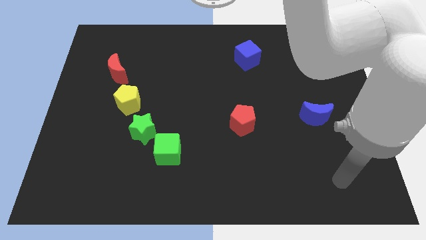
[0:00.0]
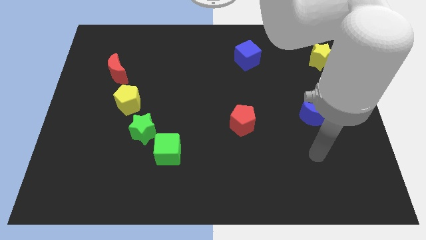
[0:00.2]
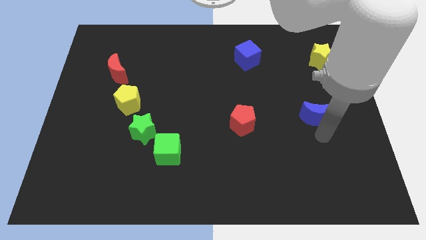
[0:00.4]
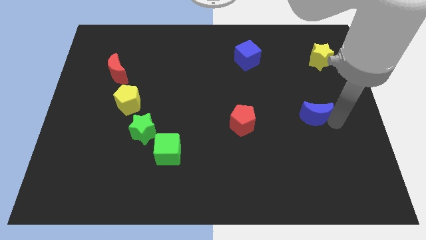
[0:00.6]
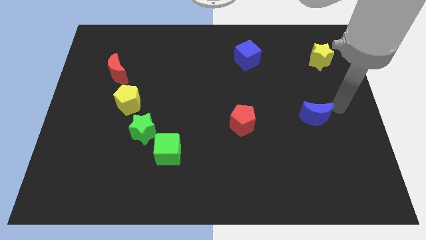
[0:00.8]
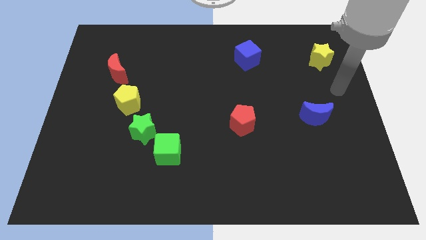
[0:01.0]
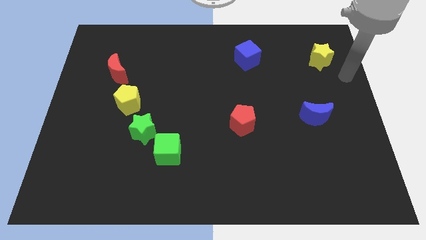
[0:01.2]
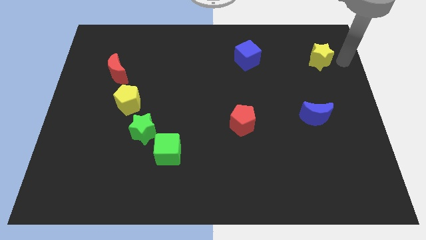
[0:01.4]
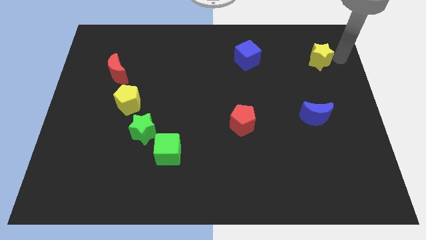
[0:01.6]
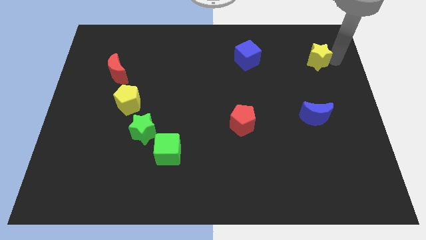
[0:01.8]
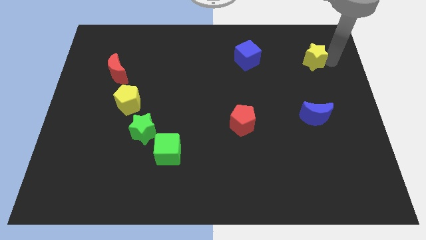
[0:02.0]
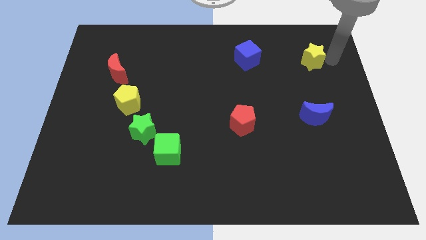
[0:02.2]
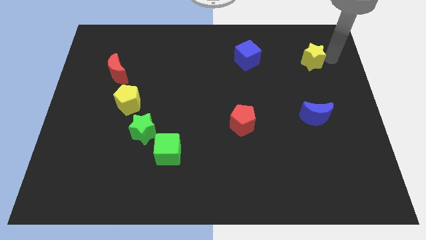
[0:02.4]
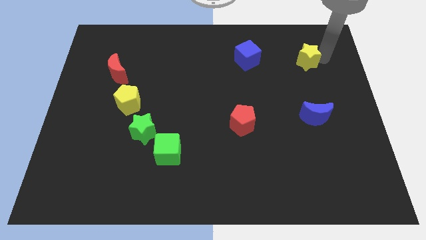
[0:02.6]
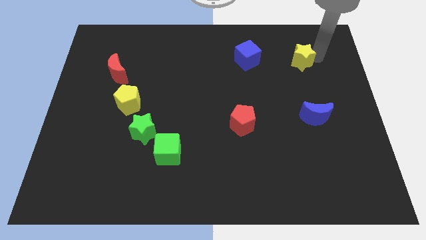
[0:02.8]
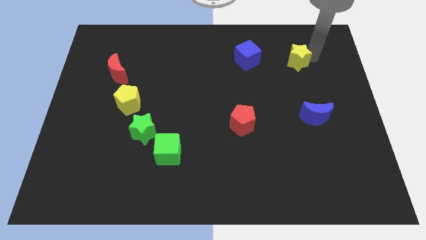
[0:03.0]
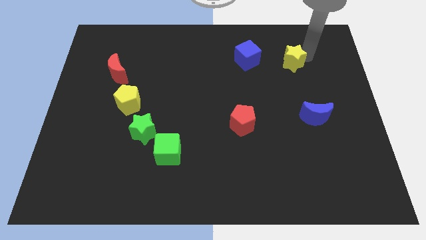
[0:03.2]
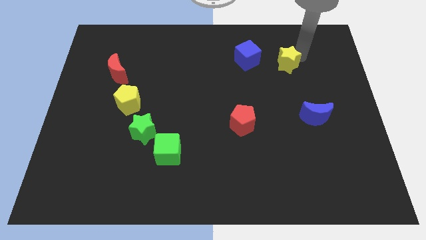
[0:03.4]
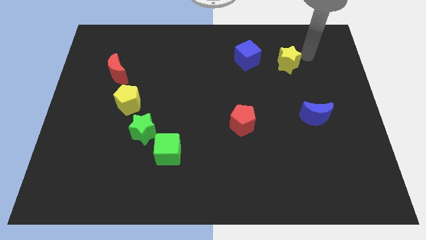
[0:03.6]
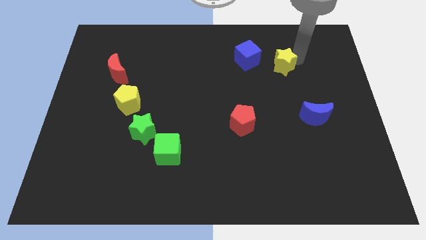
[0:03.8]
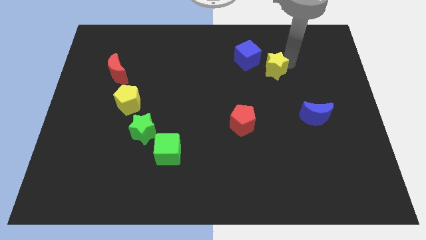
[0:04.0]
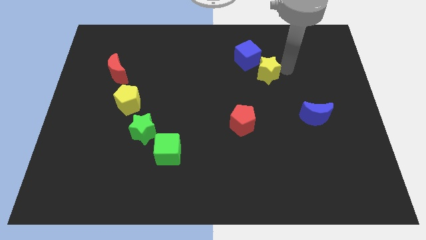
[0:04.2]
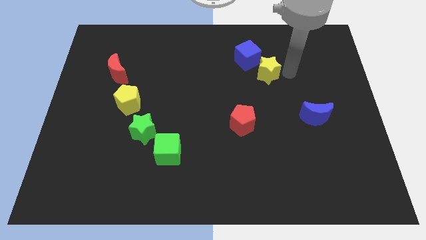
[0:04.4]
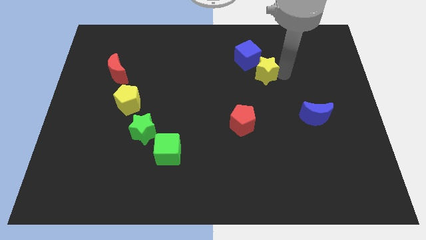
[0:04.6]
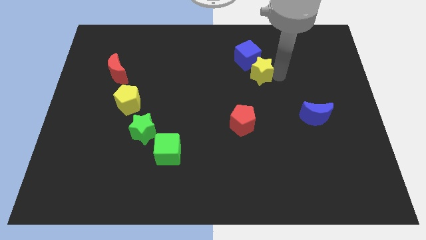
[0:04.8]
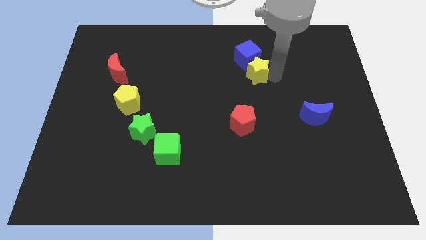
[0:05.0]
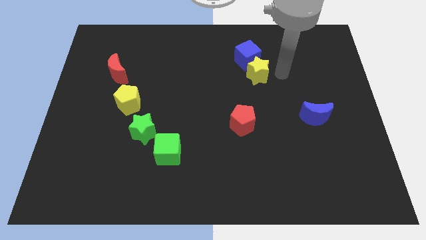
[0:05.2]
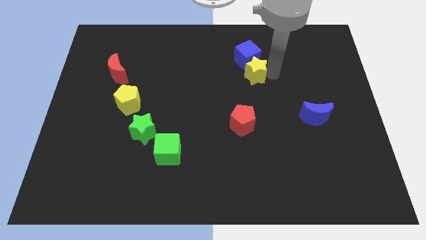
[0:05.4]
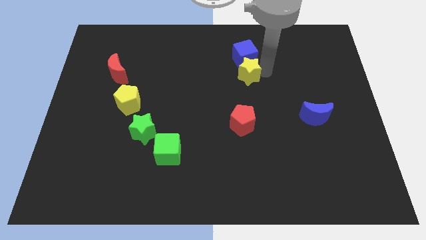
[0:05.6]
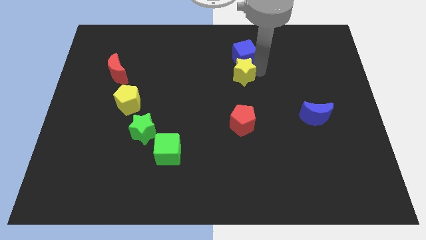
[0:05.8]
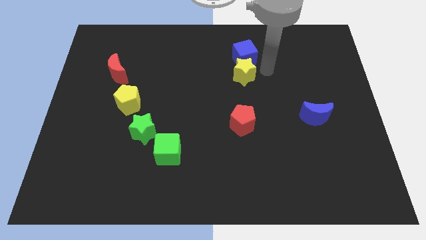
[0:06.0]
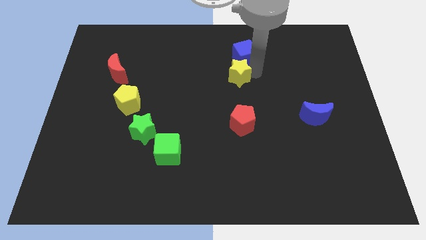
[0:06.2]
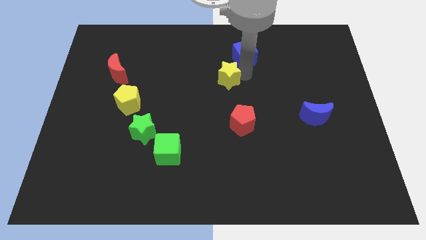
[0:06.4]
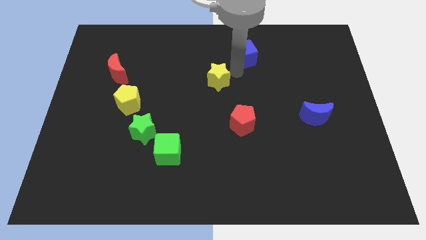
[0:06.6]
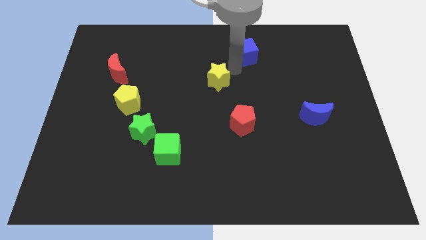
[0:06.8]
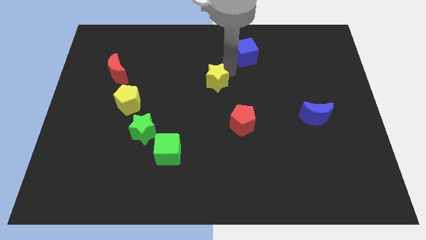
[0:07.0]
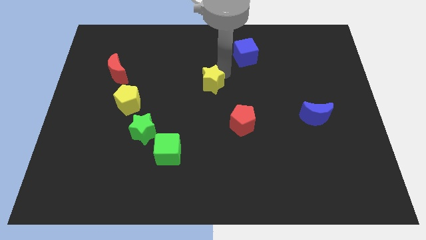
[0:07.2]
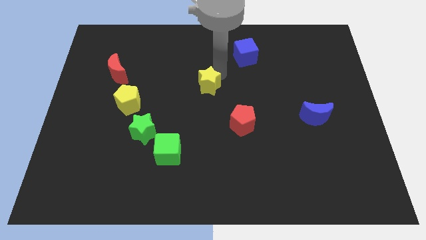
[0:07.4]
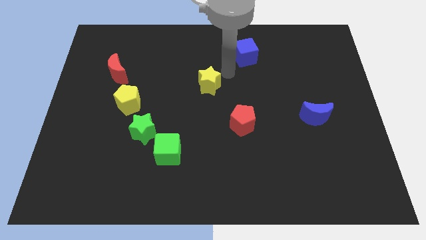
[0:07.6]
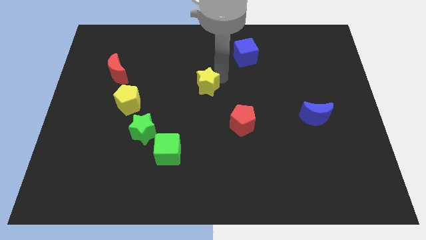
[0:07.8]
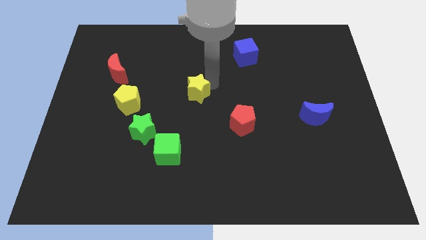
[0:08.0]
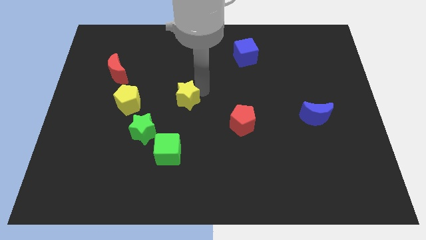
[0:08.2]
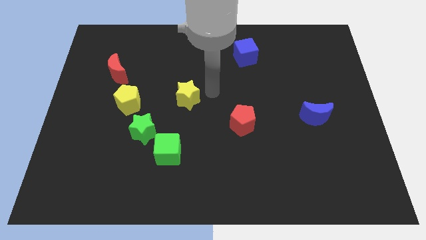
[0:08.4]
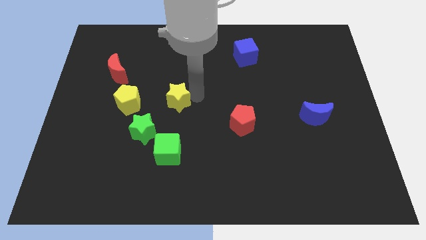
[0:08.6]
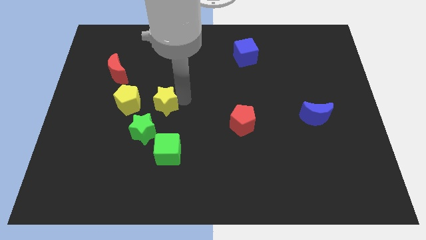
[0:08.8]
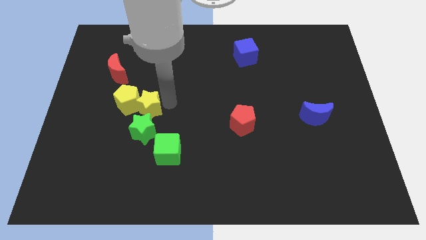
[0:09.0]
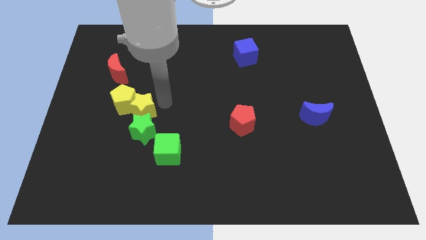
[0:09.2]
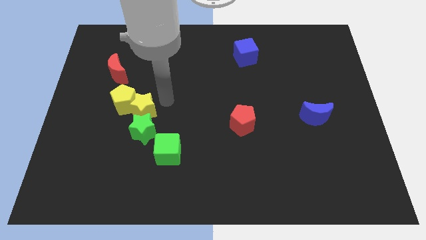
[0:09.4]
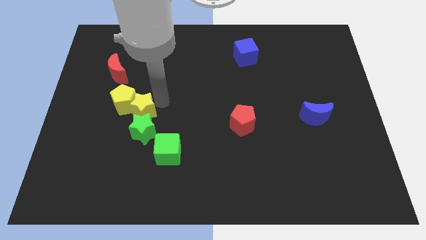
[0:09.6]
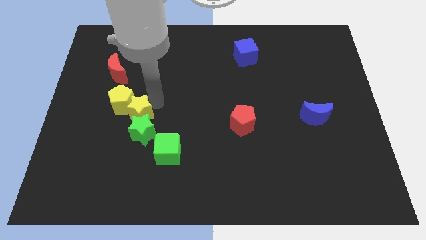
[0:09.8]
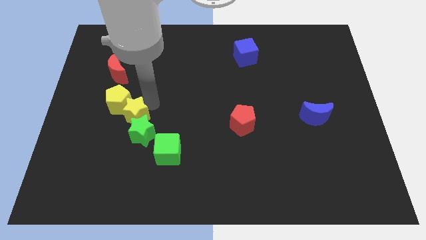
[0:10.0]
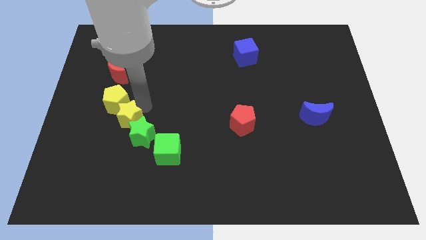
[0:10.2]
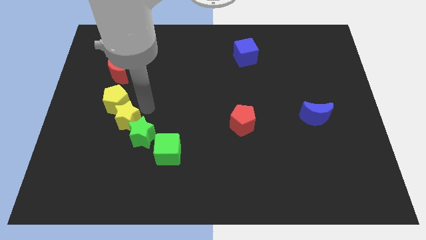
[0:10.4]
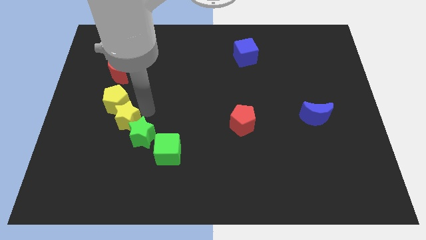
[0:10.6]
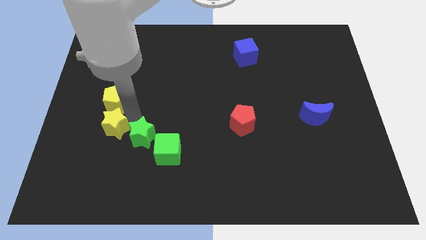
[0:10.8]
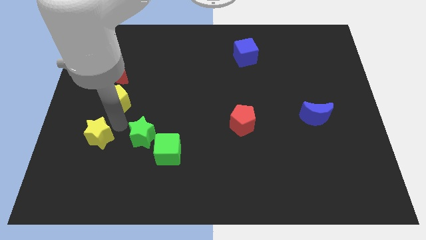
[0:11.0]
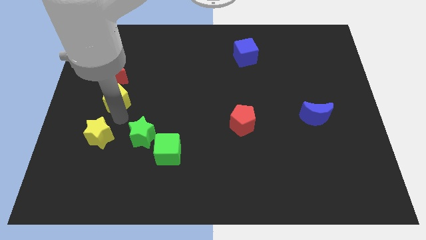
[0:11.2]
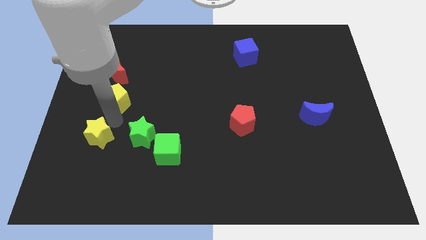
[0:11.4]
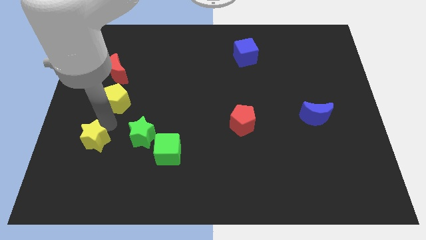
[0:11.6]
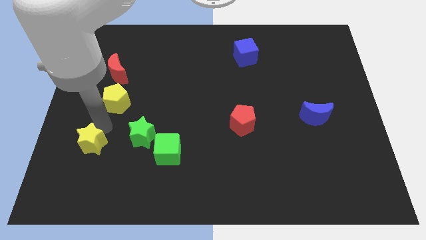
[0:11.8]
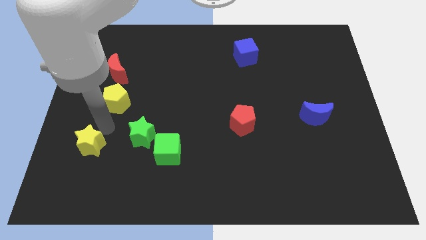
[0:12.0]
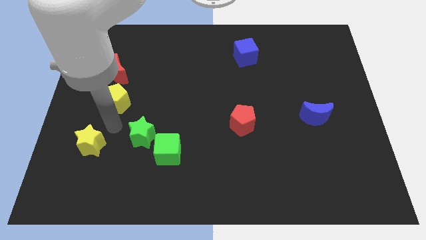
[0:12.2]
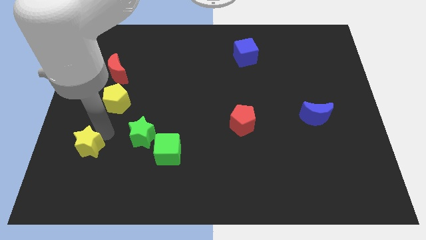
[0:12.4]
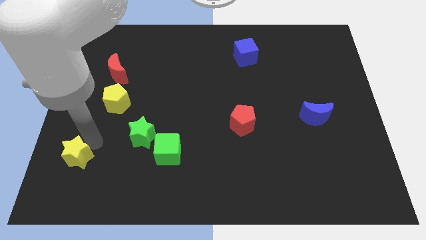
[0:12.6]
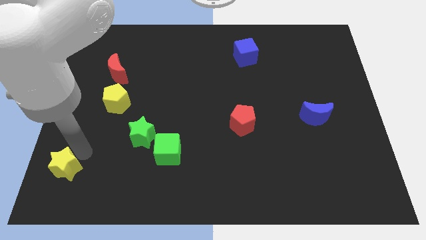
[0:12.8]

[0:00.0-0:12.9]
push the yellow star to the lower left corner
